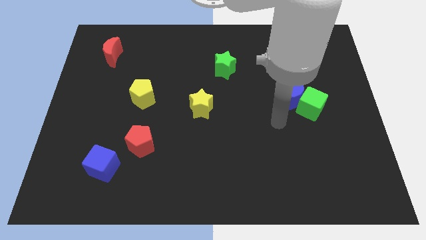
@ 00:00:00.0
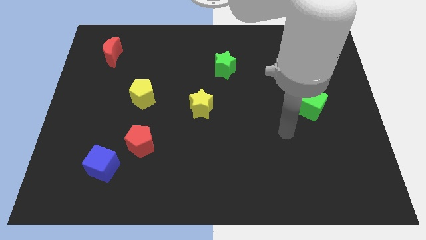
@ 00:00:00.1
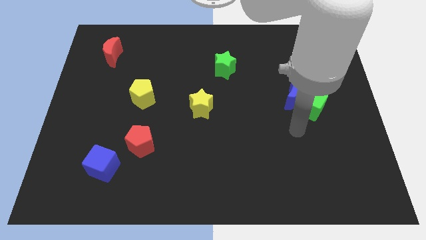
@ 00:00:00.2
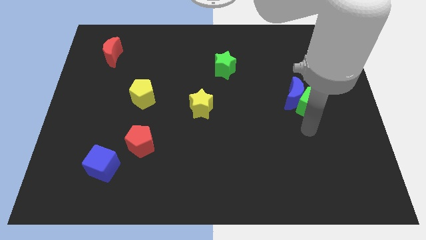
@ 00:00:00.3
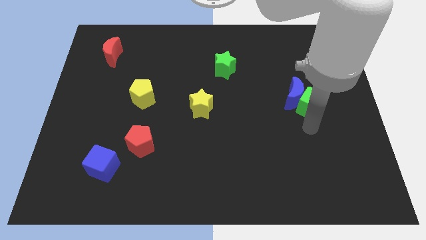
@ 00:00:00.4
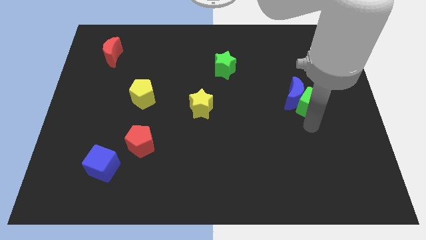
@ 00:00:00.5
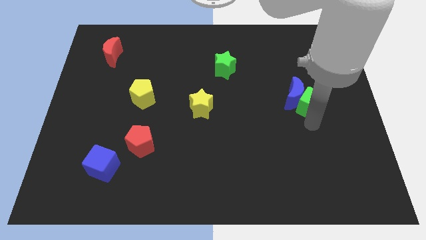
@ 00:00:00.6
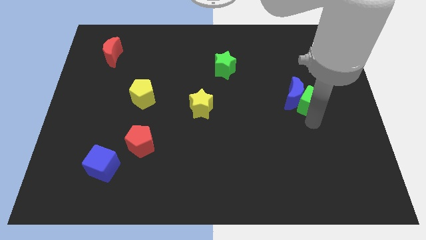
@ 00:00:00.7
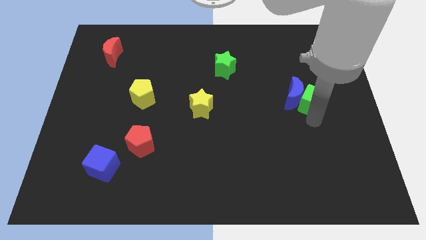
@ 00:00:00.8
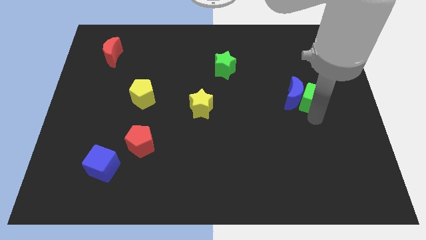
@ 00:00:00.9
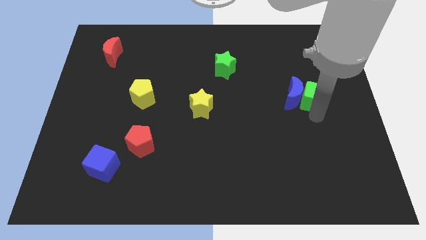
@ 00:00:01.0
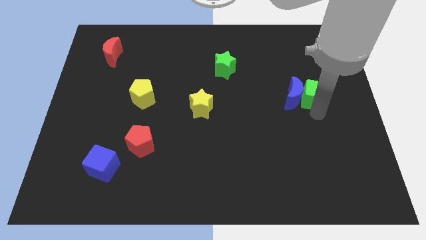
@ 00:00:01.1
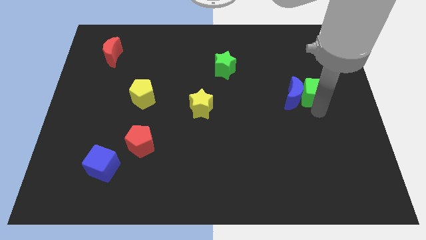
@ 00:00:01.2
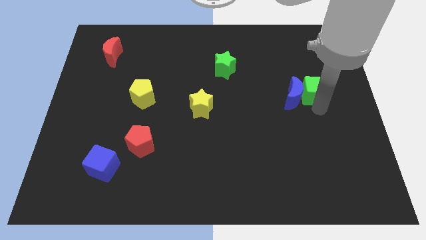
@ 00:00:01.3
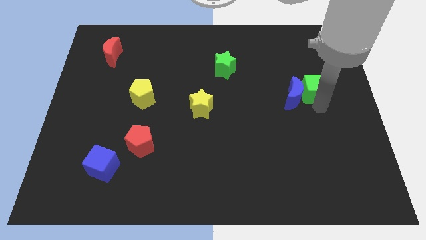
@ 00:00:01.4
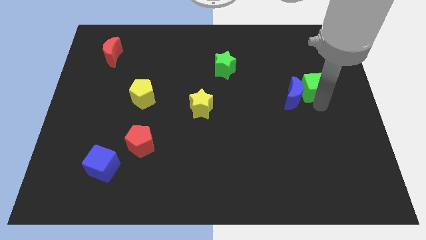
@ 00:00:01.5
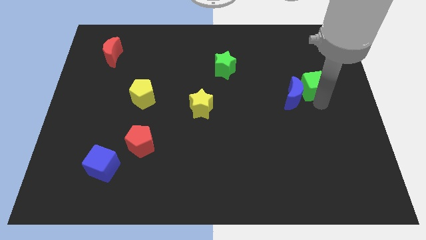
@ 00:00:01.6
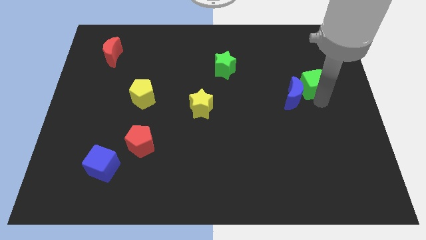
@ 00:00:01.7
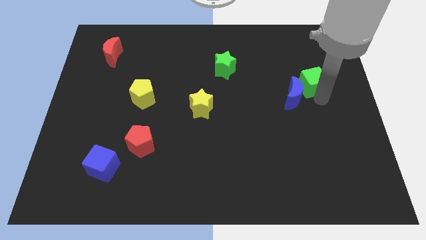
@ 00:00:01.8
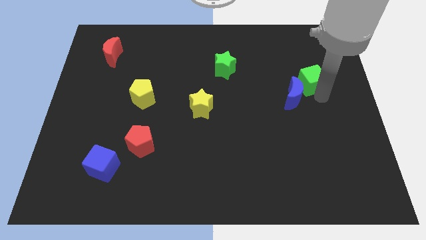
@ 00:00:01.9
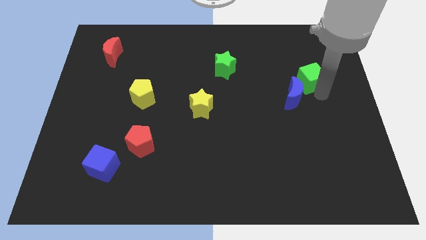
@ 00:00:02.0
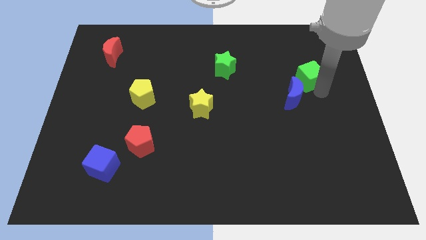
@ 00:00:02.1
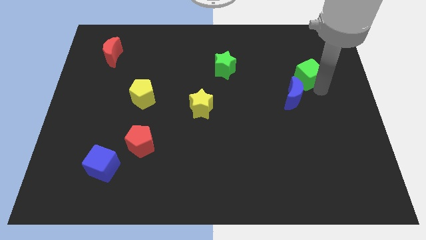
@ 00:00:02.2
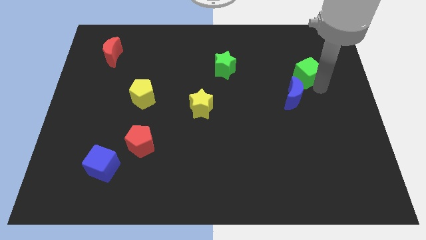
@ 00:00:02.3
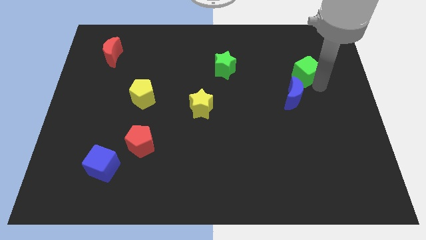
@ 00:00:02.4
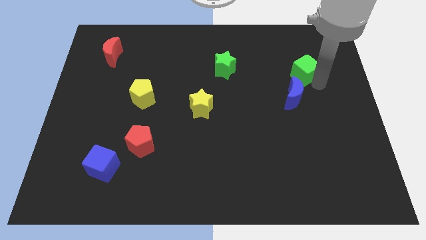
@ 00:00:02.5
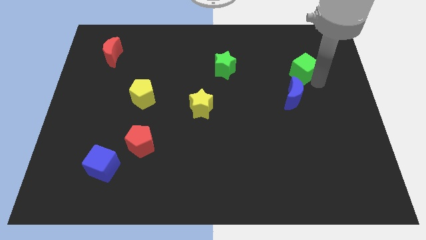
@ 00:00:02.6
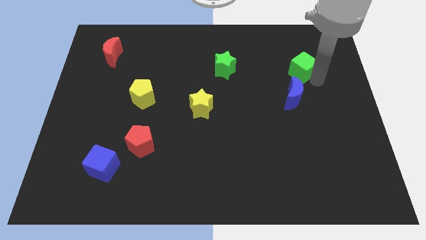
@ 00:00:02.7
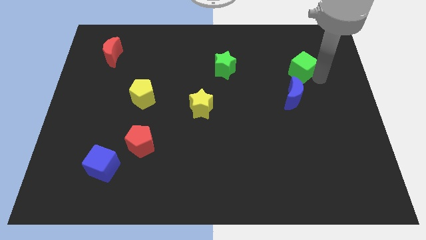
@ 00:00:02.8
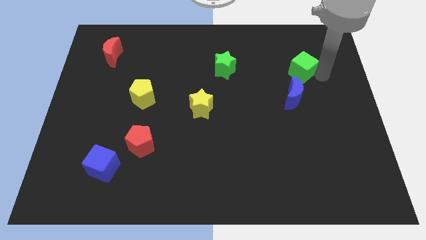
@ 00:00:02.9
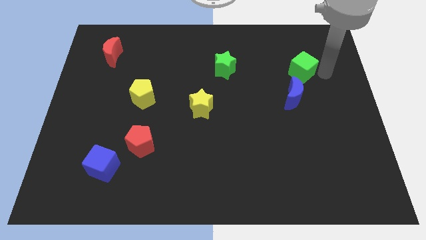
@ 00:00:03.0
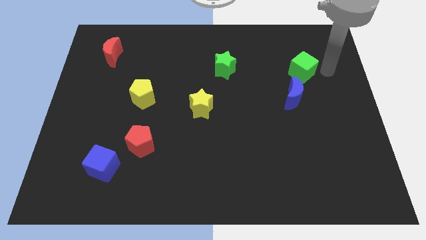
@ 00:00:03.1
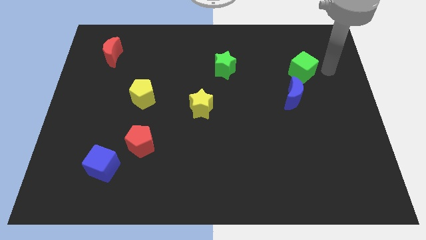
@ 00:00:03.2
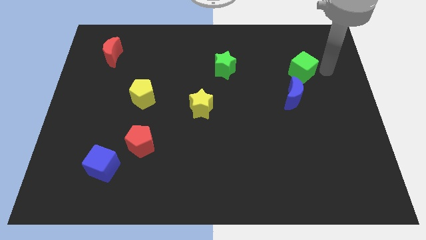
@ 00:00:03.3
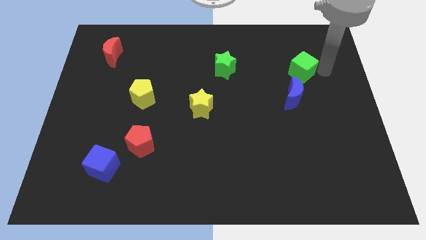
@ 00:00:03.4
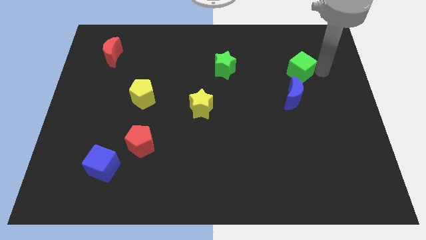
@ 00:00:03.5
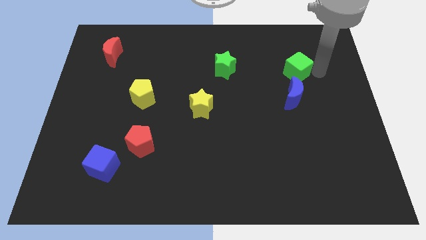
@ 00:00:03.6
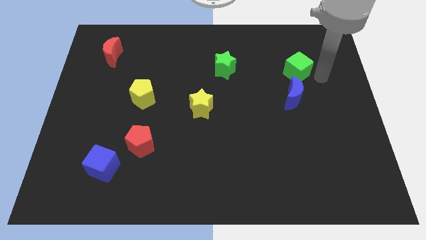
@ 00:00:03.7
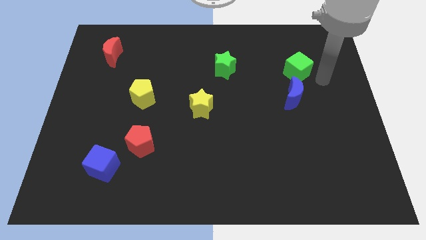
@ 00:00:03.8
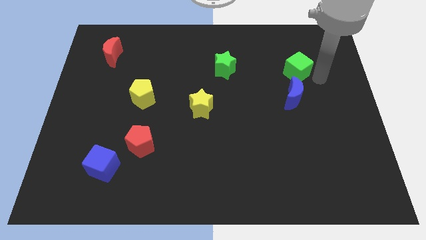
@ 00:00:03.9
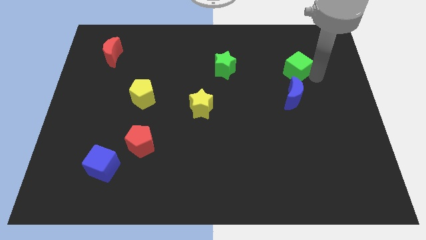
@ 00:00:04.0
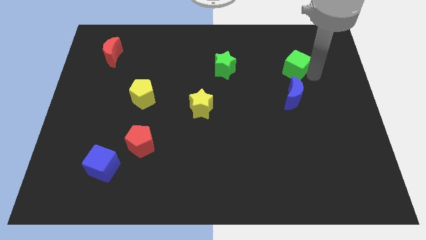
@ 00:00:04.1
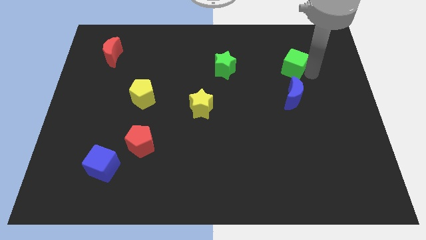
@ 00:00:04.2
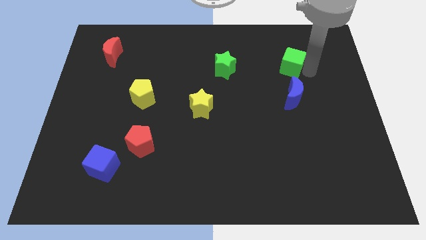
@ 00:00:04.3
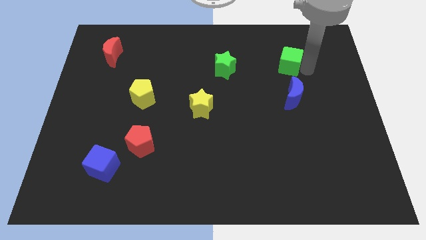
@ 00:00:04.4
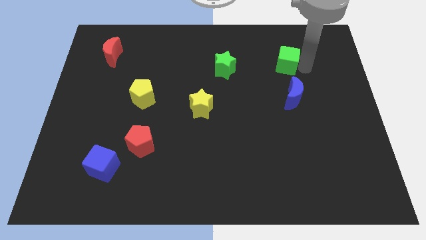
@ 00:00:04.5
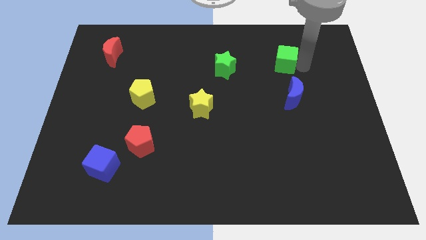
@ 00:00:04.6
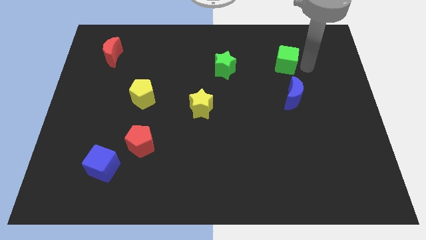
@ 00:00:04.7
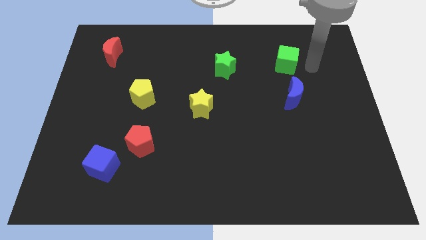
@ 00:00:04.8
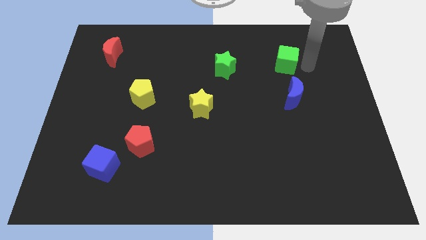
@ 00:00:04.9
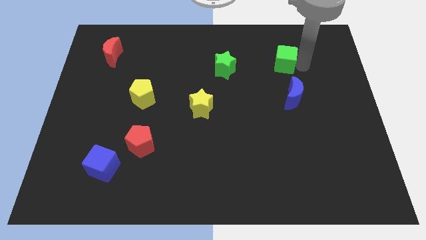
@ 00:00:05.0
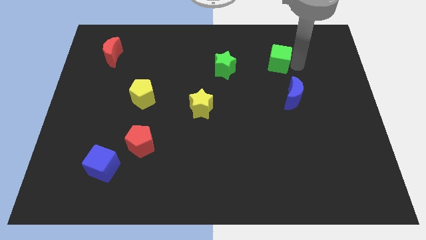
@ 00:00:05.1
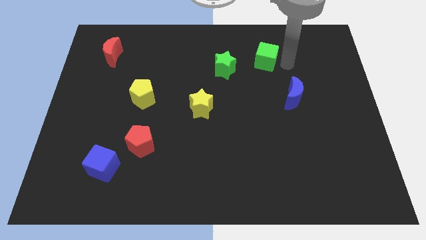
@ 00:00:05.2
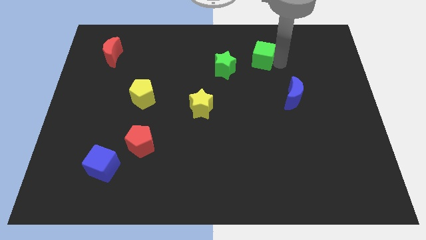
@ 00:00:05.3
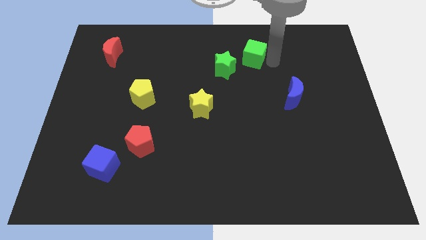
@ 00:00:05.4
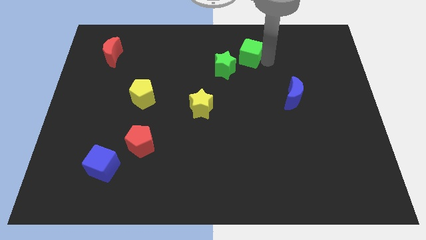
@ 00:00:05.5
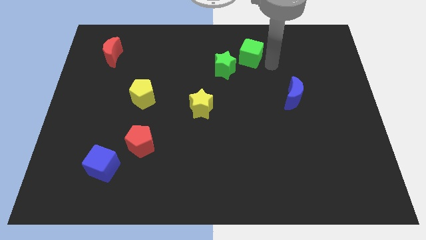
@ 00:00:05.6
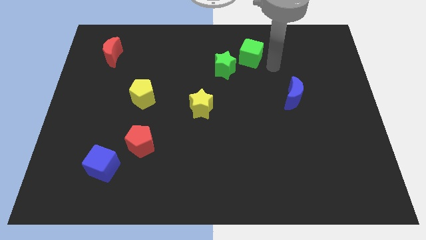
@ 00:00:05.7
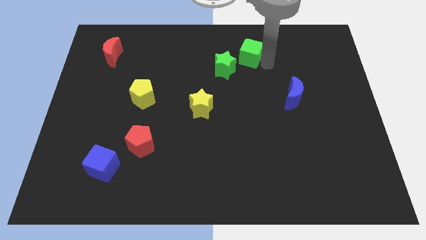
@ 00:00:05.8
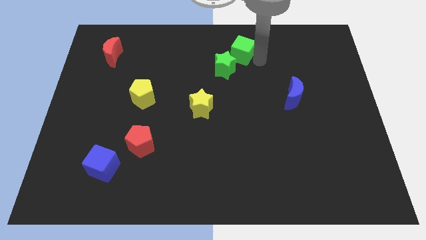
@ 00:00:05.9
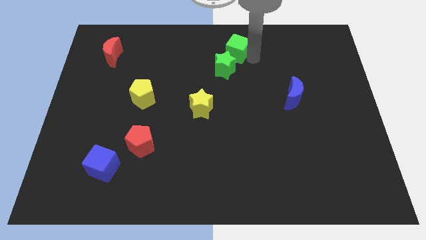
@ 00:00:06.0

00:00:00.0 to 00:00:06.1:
slide the green cube to the top

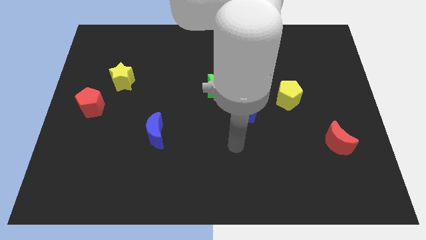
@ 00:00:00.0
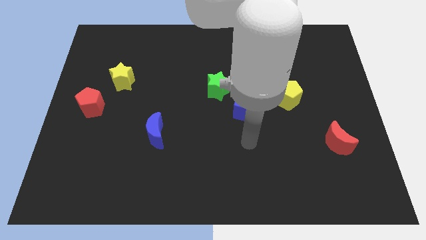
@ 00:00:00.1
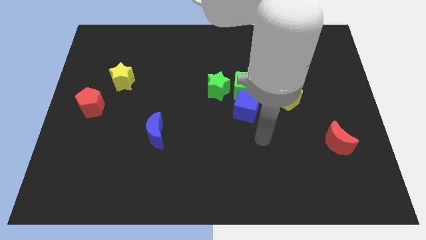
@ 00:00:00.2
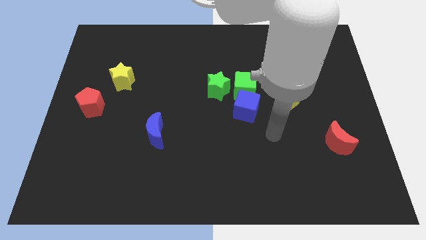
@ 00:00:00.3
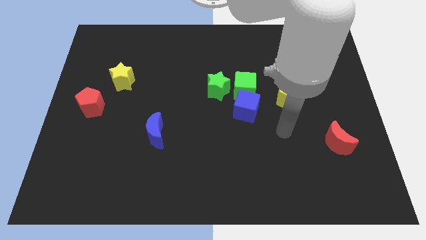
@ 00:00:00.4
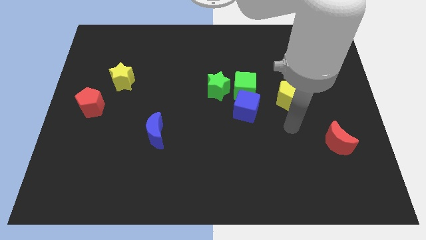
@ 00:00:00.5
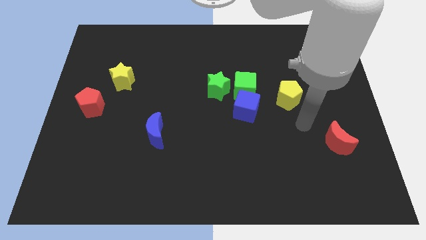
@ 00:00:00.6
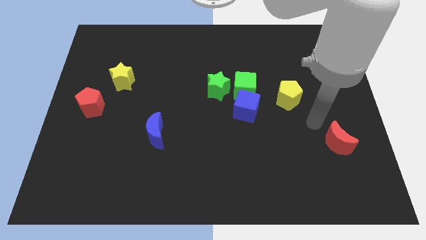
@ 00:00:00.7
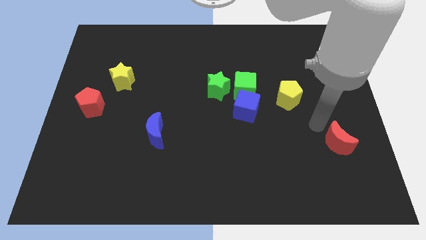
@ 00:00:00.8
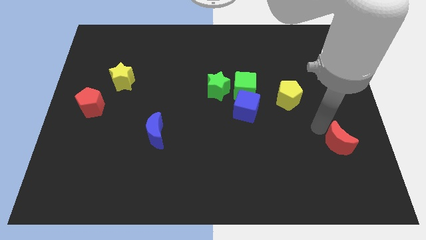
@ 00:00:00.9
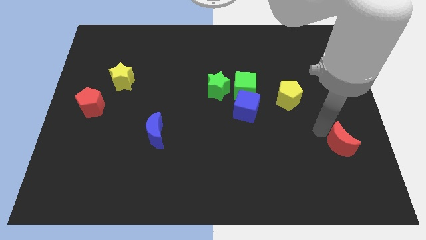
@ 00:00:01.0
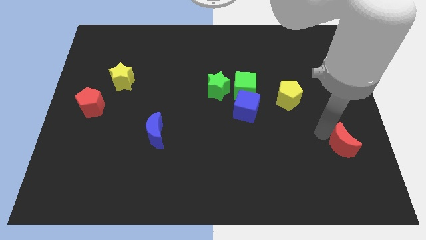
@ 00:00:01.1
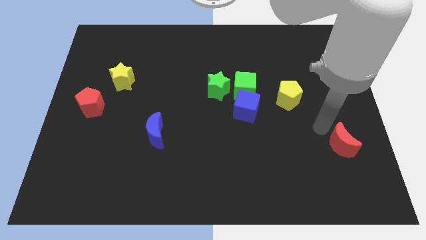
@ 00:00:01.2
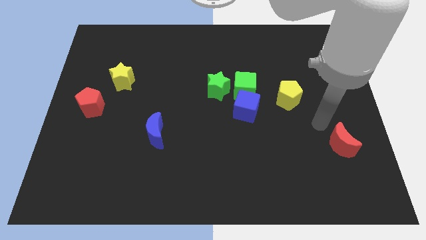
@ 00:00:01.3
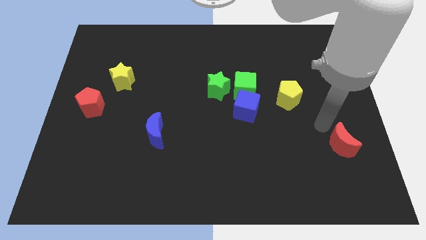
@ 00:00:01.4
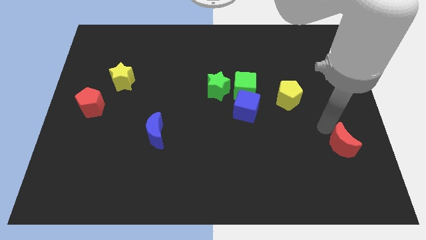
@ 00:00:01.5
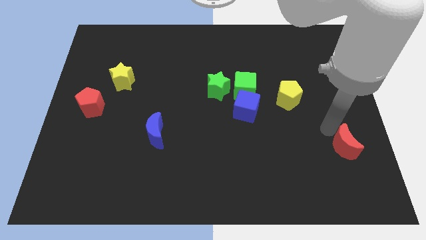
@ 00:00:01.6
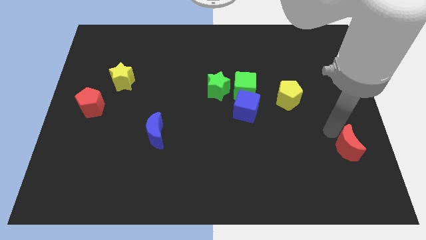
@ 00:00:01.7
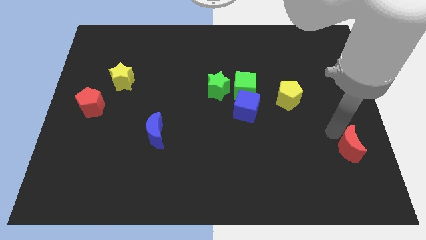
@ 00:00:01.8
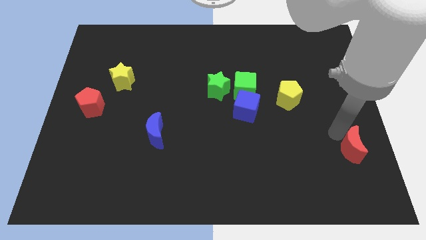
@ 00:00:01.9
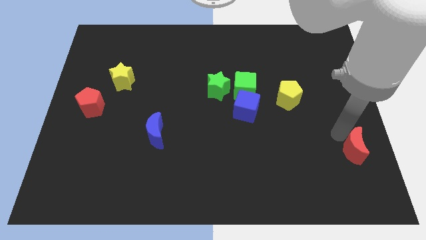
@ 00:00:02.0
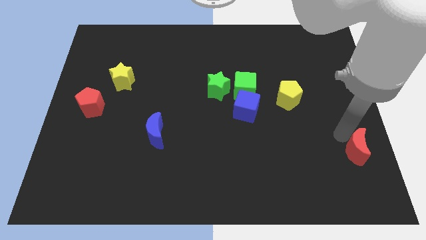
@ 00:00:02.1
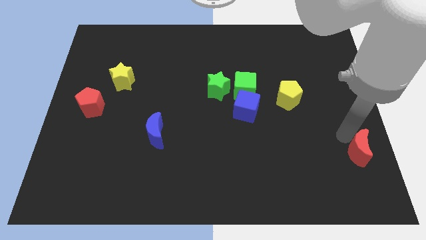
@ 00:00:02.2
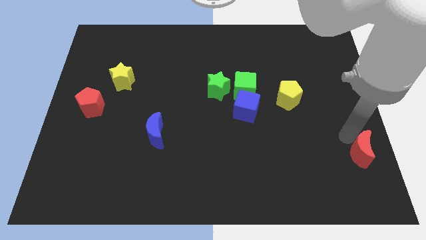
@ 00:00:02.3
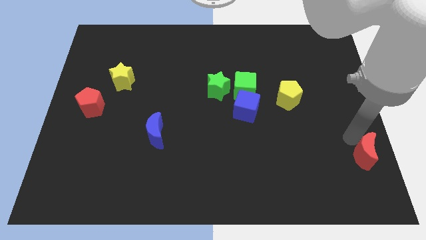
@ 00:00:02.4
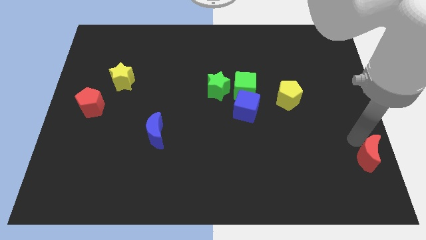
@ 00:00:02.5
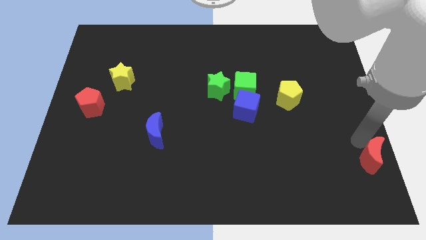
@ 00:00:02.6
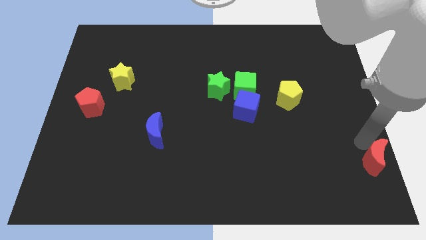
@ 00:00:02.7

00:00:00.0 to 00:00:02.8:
push the red moon to the bottom right
